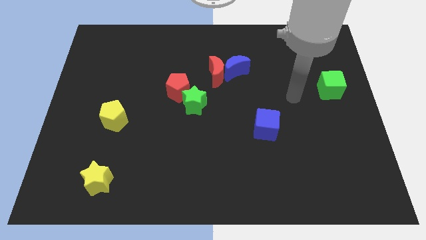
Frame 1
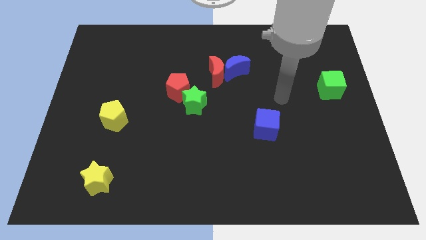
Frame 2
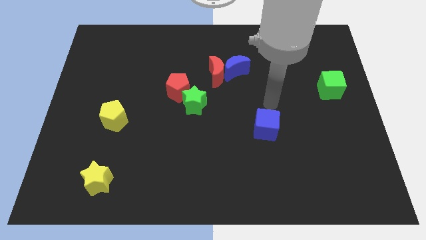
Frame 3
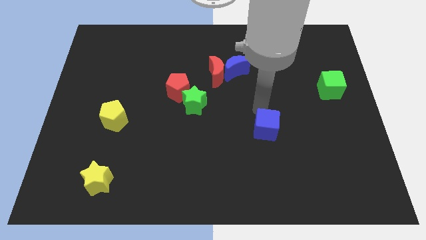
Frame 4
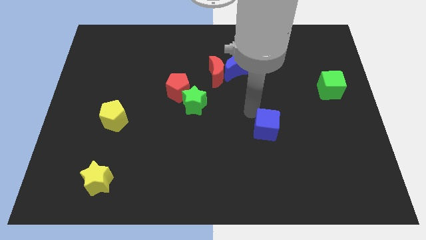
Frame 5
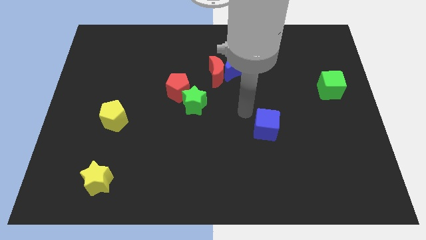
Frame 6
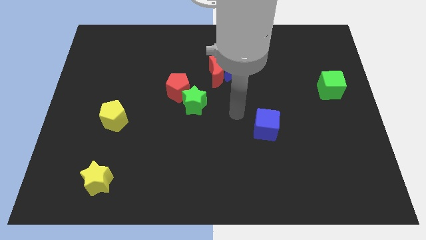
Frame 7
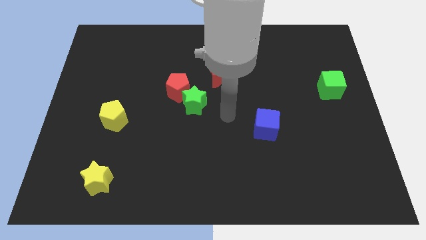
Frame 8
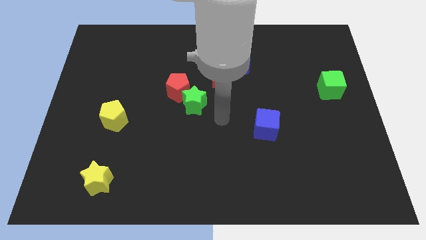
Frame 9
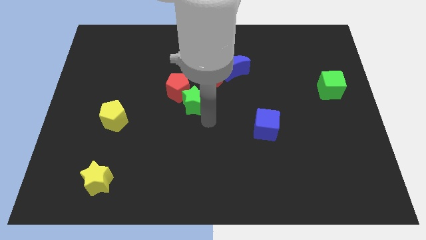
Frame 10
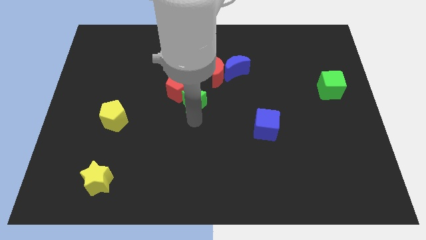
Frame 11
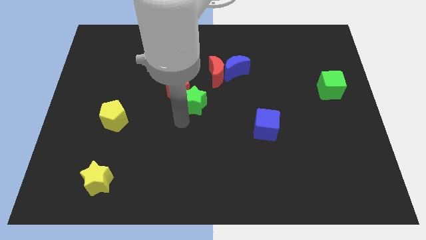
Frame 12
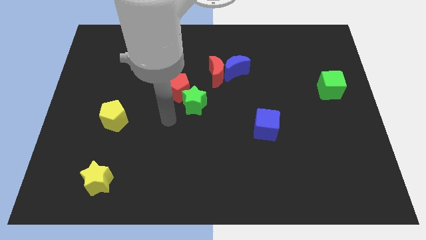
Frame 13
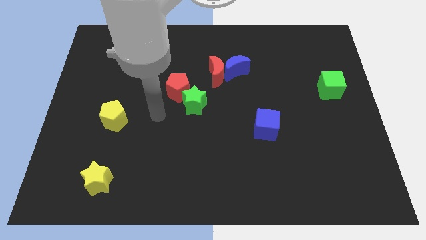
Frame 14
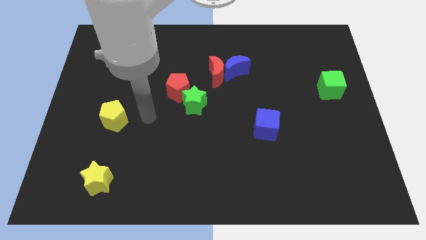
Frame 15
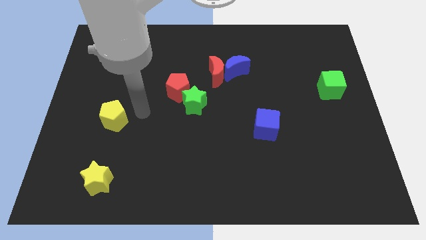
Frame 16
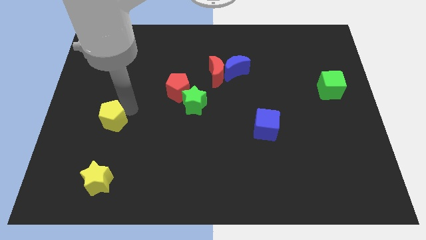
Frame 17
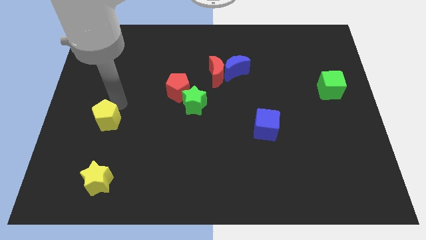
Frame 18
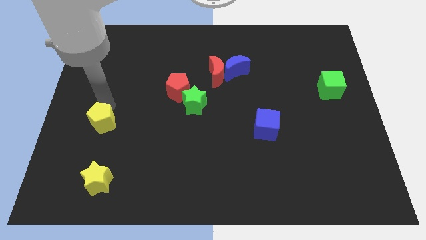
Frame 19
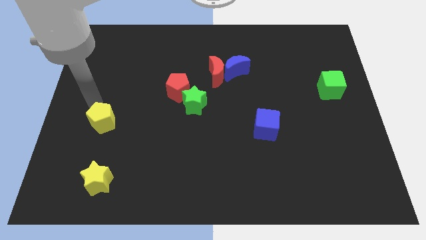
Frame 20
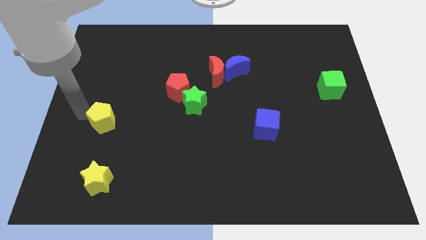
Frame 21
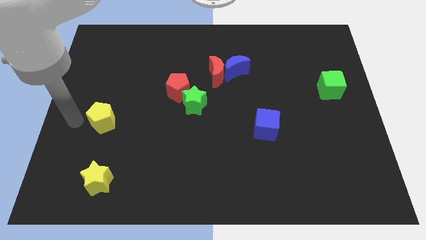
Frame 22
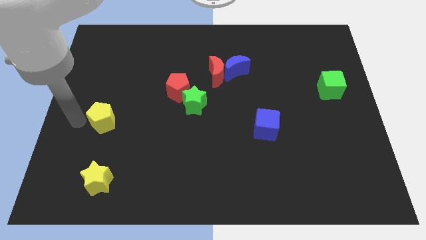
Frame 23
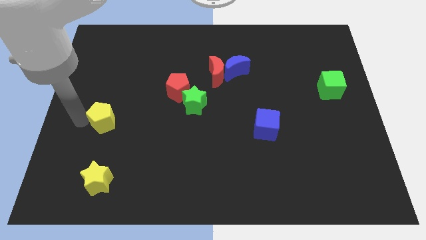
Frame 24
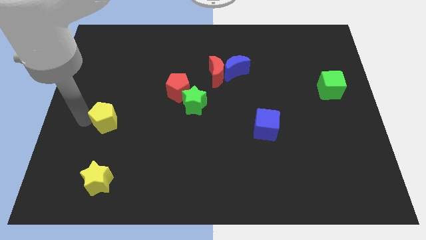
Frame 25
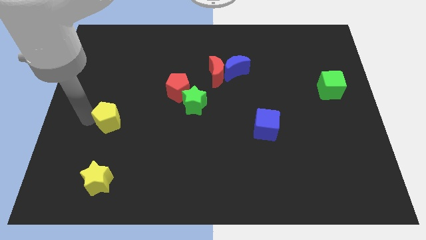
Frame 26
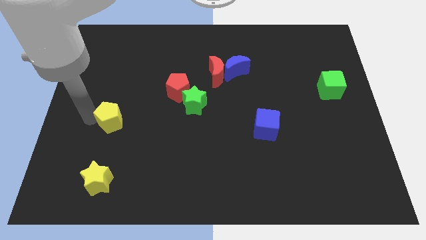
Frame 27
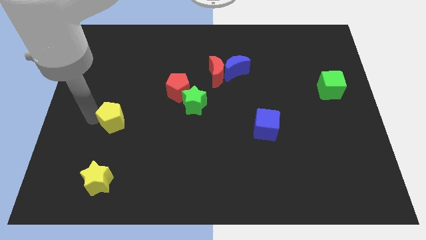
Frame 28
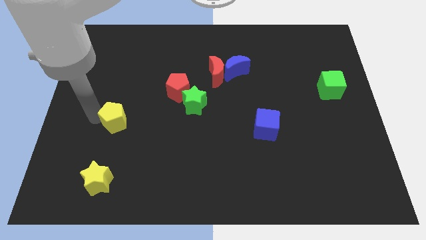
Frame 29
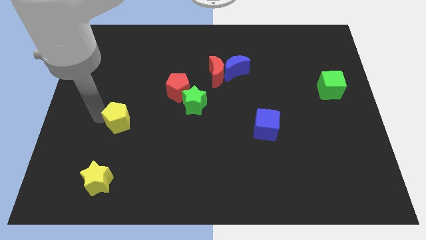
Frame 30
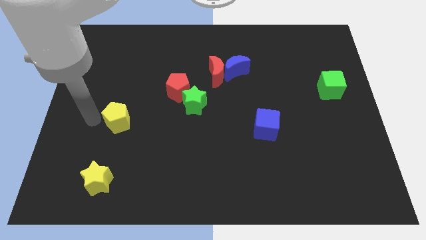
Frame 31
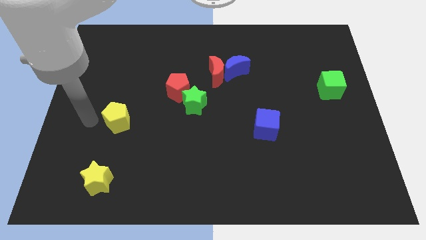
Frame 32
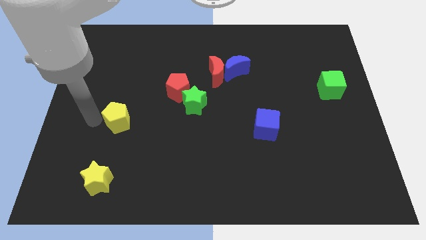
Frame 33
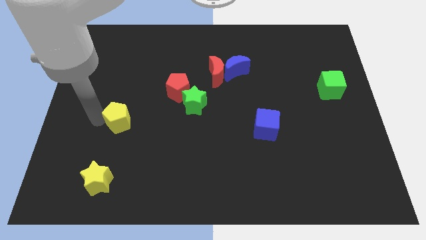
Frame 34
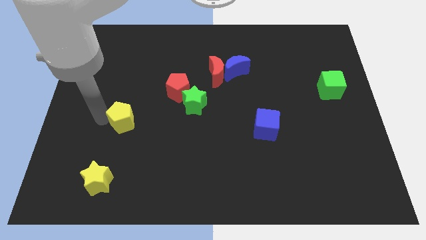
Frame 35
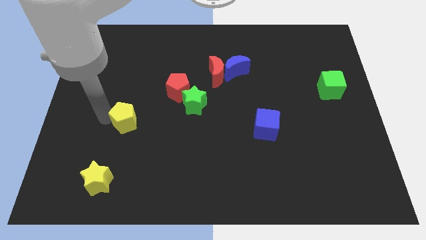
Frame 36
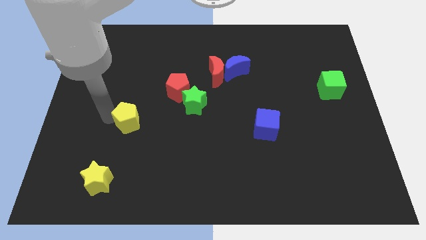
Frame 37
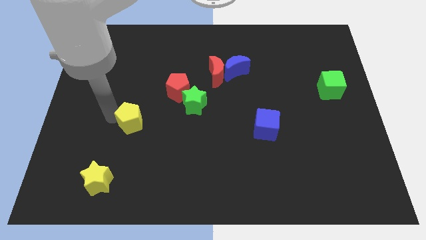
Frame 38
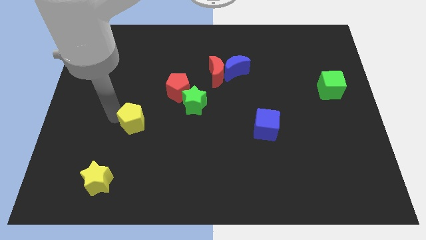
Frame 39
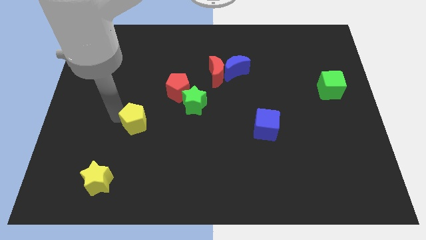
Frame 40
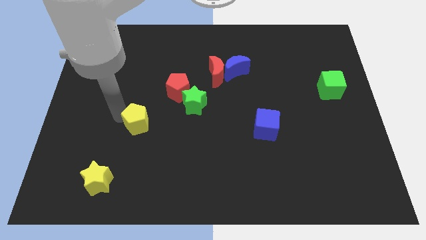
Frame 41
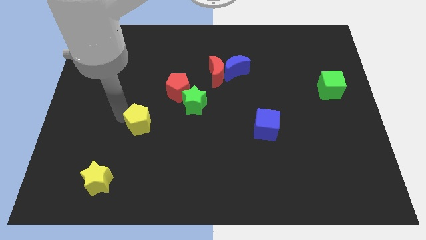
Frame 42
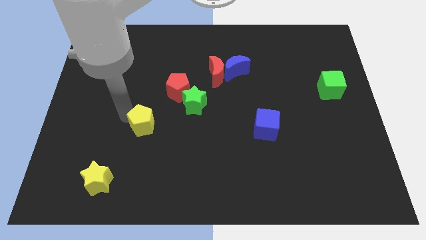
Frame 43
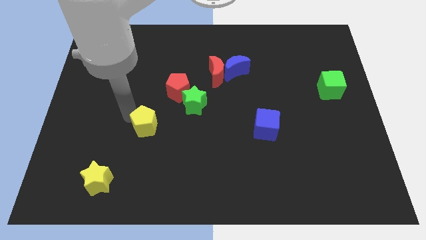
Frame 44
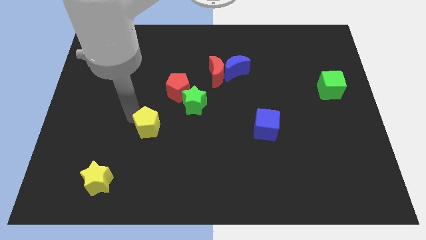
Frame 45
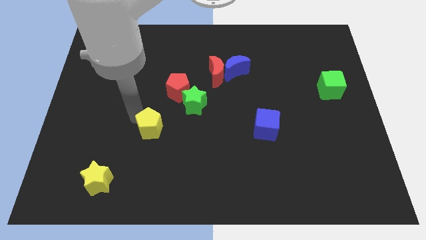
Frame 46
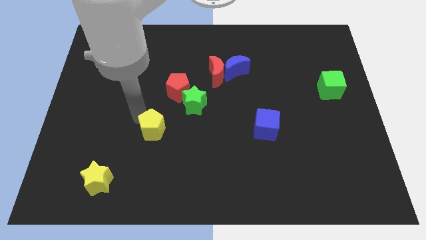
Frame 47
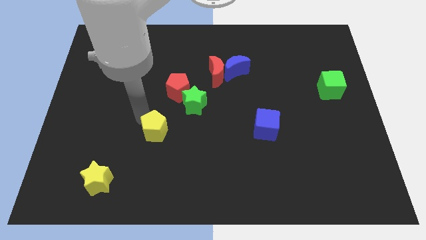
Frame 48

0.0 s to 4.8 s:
put the yellow pentagon below the red pentagon

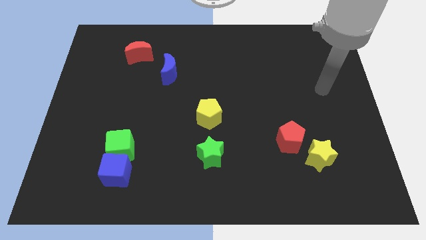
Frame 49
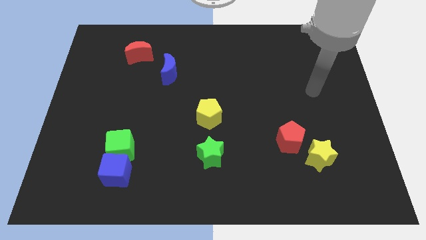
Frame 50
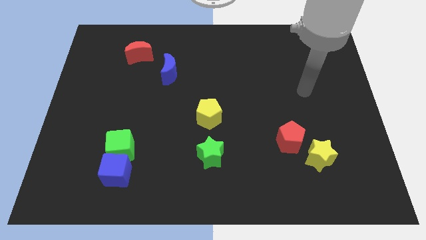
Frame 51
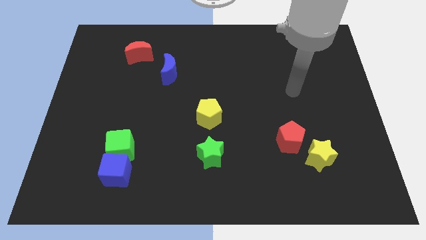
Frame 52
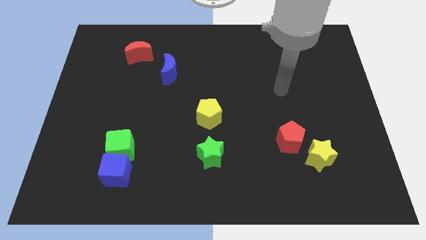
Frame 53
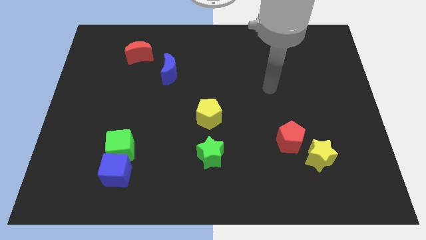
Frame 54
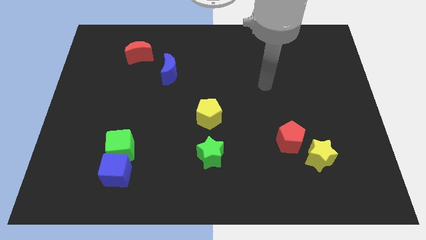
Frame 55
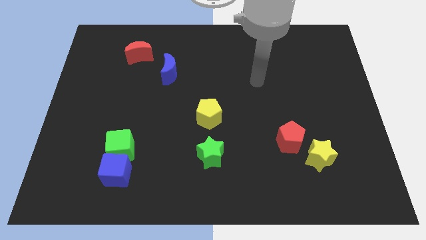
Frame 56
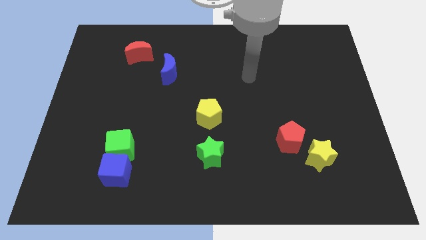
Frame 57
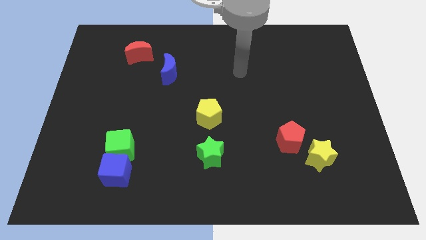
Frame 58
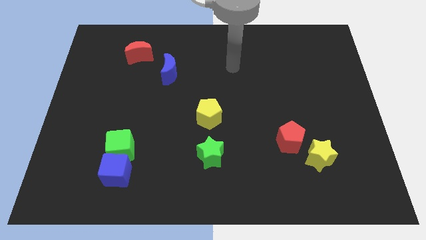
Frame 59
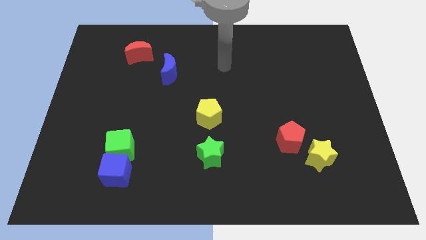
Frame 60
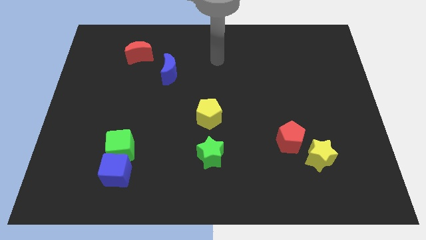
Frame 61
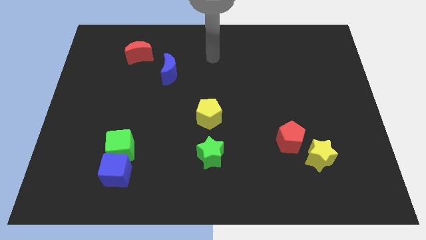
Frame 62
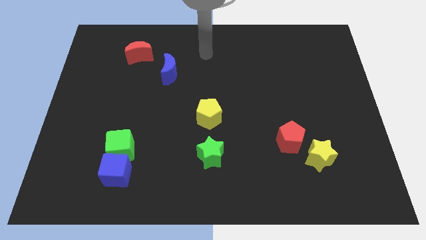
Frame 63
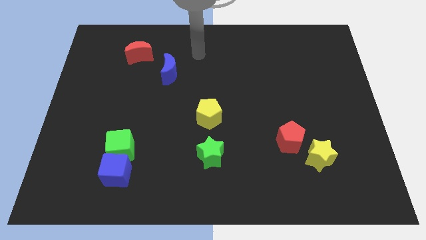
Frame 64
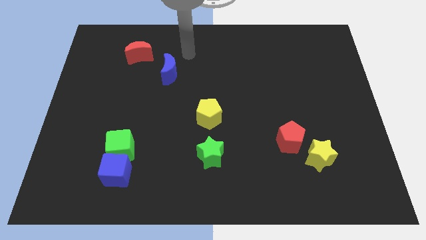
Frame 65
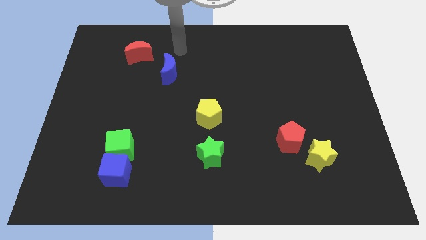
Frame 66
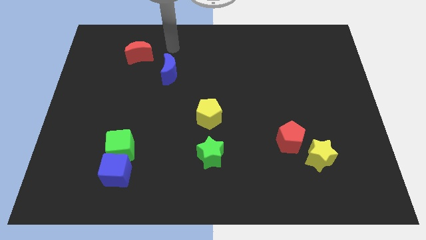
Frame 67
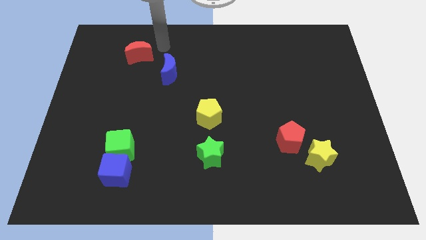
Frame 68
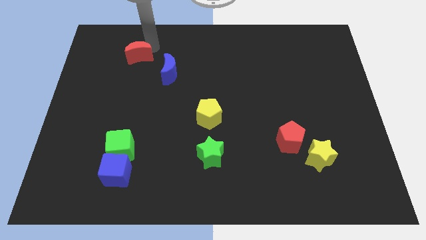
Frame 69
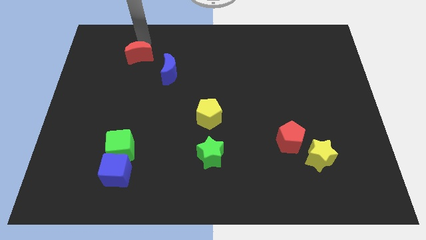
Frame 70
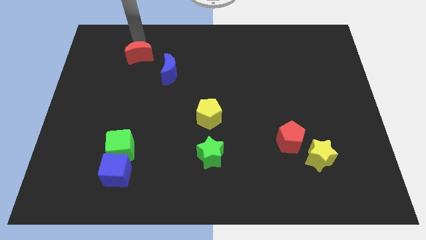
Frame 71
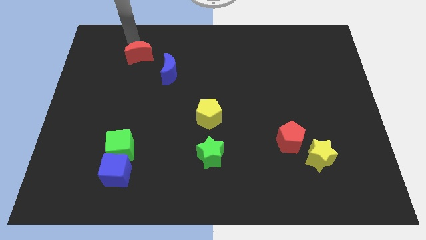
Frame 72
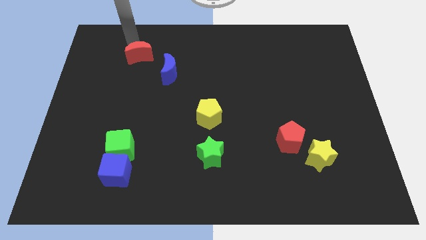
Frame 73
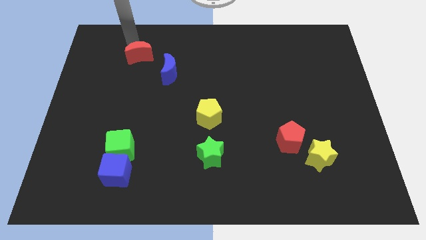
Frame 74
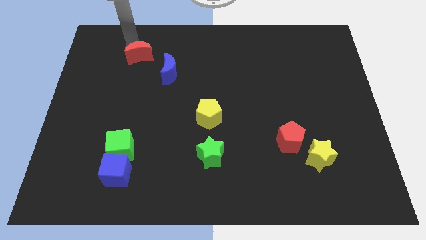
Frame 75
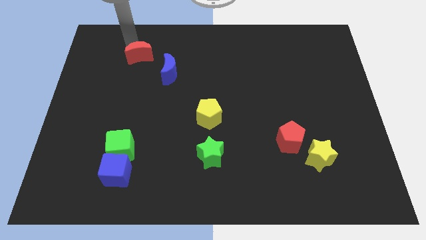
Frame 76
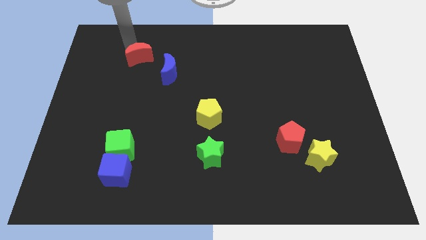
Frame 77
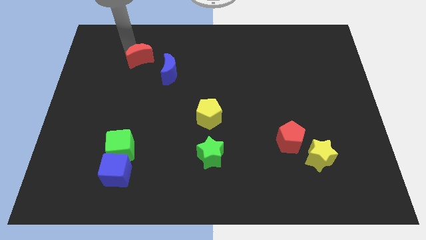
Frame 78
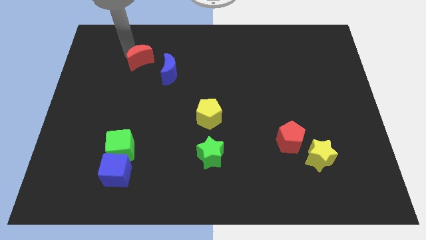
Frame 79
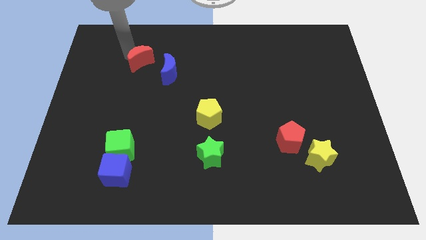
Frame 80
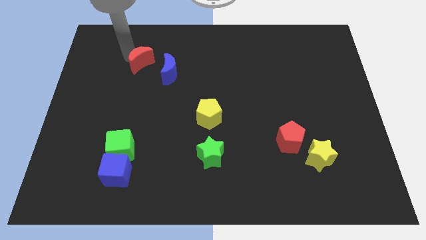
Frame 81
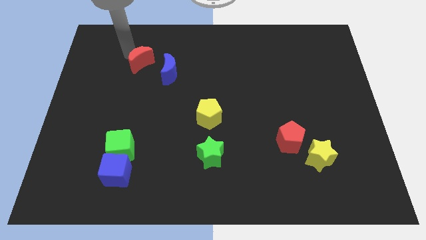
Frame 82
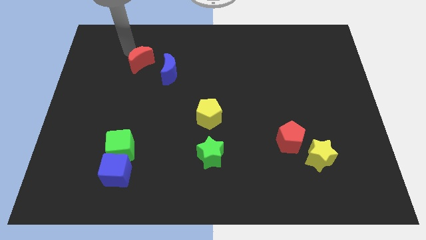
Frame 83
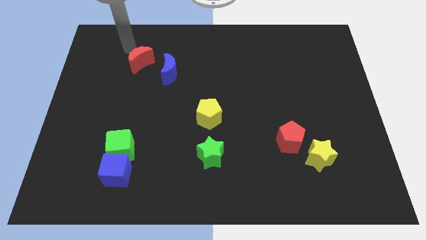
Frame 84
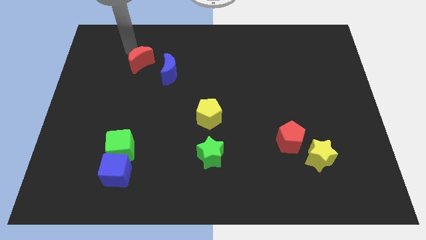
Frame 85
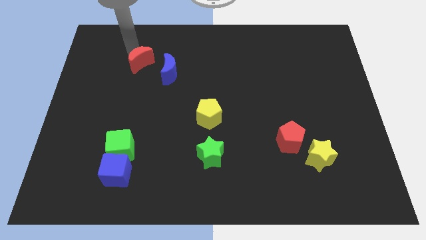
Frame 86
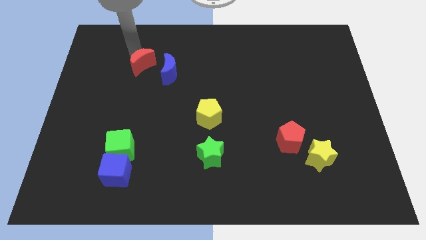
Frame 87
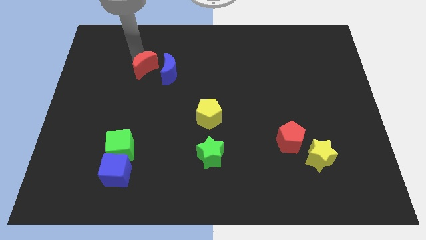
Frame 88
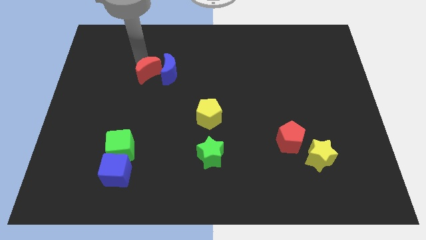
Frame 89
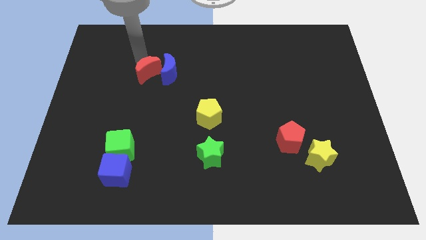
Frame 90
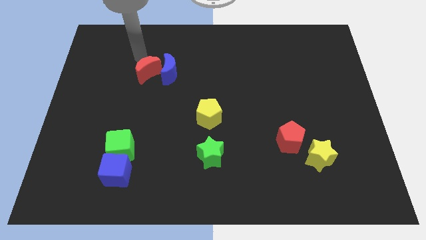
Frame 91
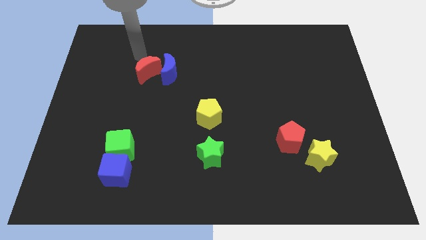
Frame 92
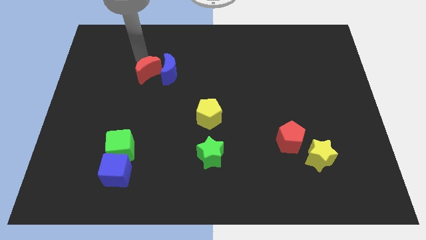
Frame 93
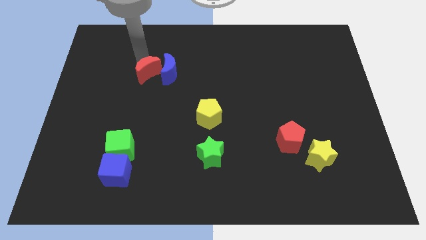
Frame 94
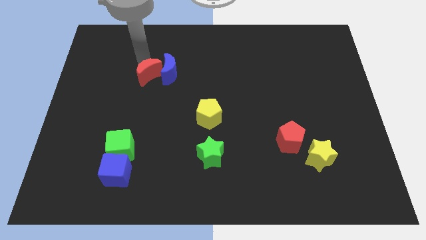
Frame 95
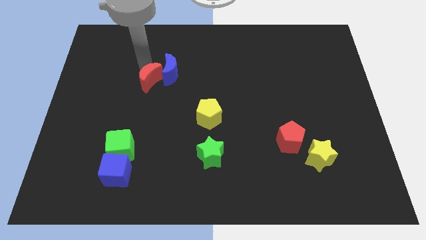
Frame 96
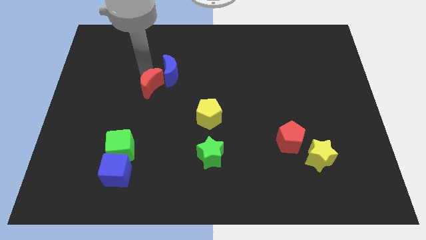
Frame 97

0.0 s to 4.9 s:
slide the red moon to the bottom side of the blue moon
